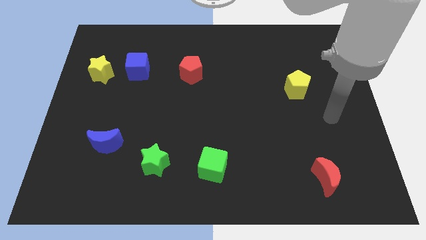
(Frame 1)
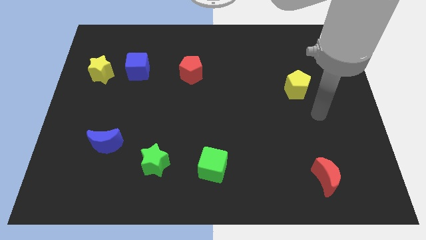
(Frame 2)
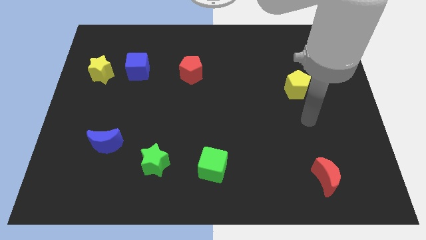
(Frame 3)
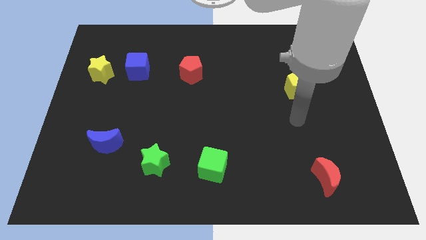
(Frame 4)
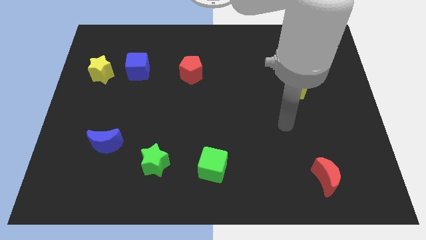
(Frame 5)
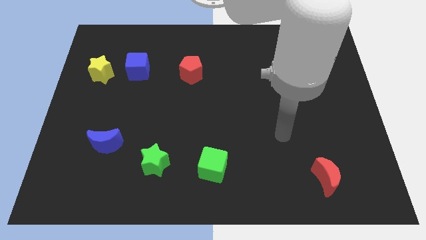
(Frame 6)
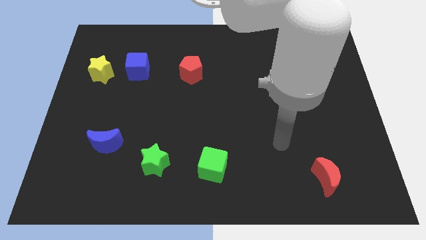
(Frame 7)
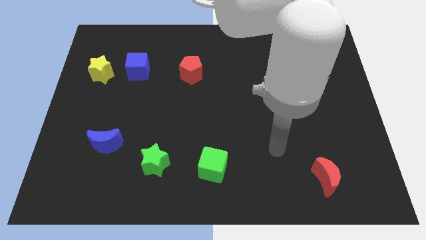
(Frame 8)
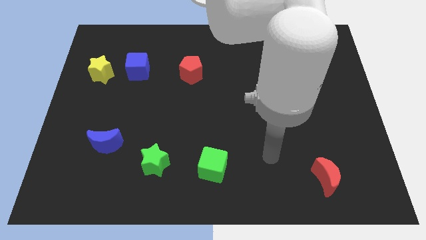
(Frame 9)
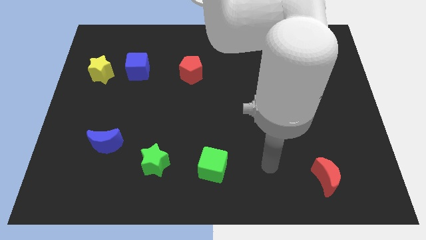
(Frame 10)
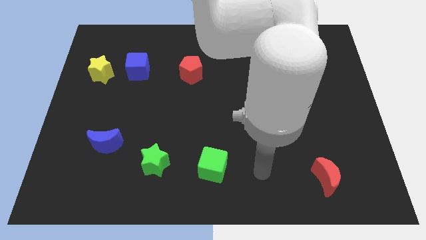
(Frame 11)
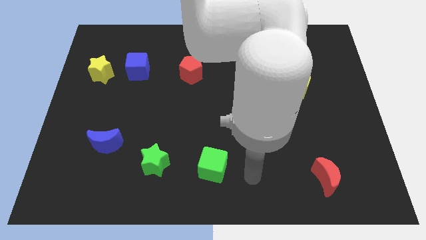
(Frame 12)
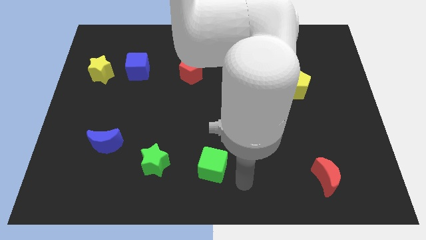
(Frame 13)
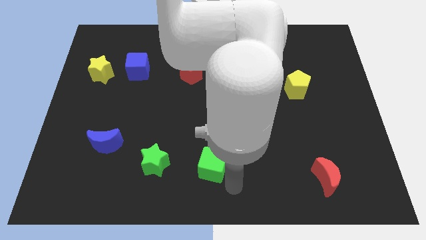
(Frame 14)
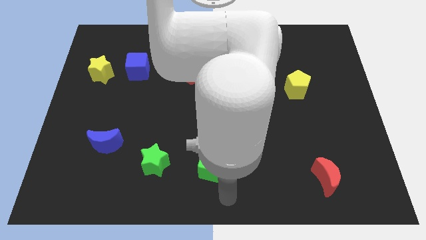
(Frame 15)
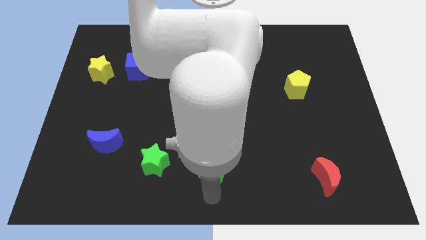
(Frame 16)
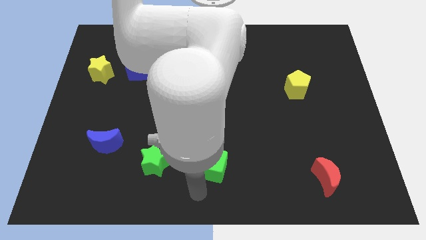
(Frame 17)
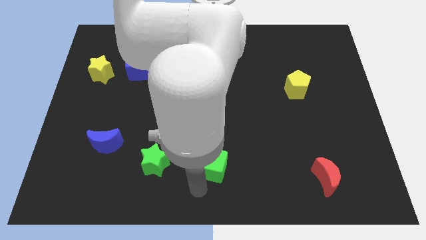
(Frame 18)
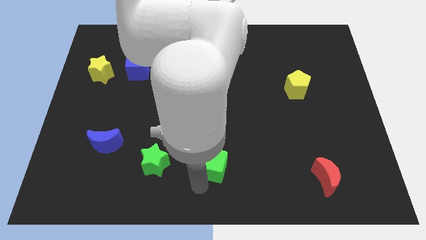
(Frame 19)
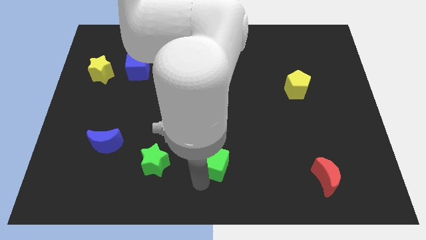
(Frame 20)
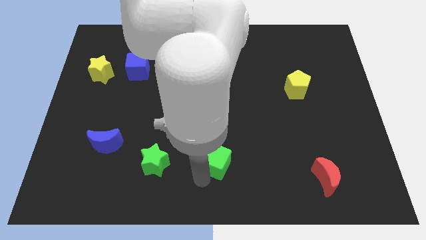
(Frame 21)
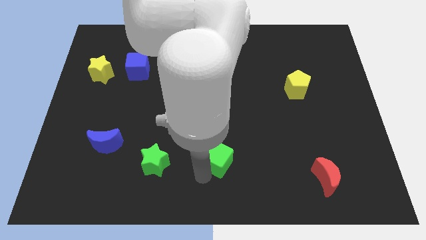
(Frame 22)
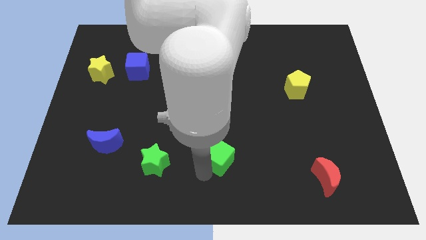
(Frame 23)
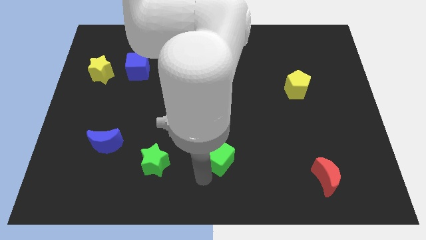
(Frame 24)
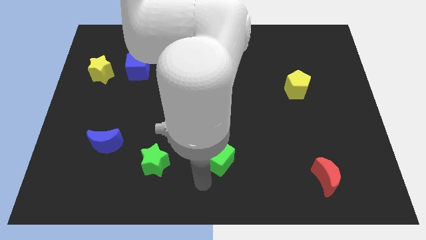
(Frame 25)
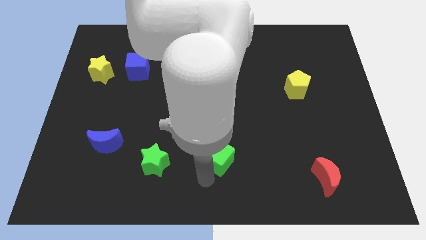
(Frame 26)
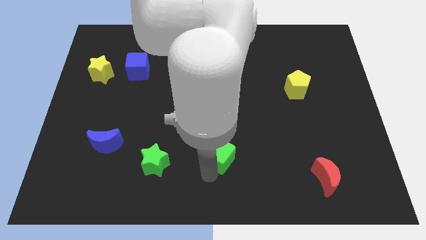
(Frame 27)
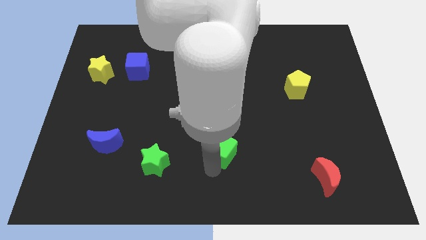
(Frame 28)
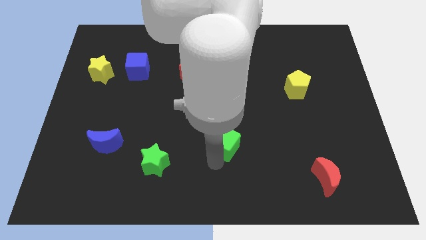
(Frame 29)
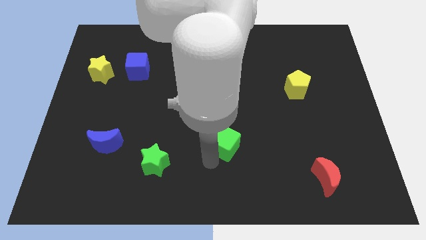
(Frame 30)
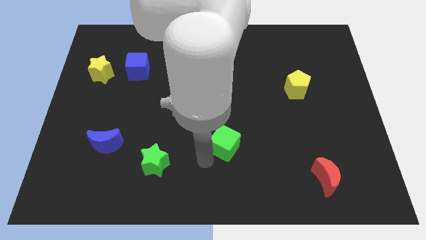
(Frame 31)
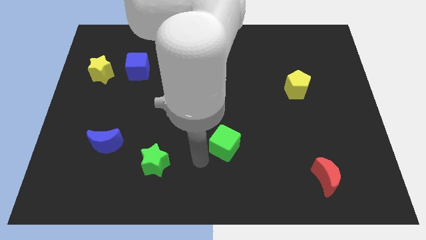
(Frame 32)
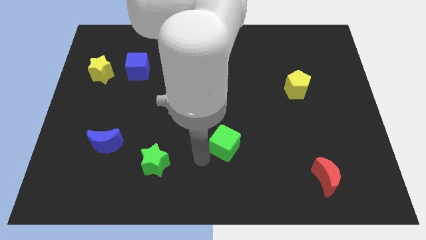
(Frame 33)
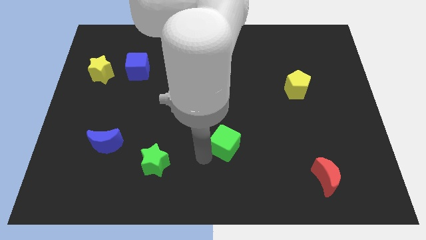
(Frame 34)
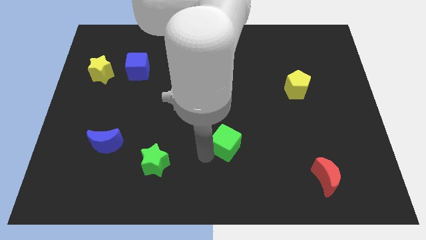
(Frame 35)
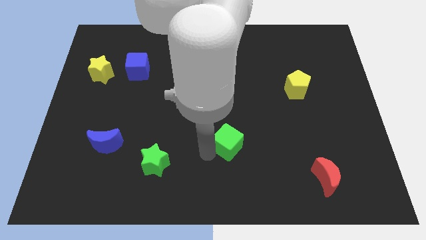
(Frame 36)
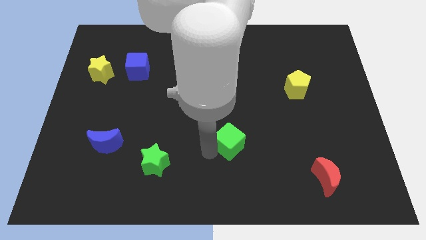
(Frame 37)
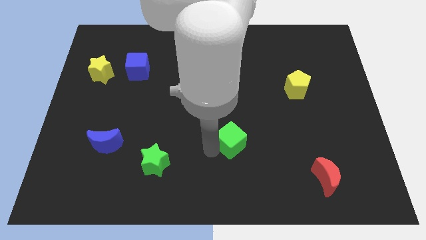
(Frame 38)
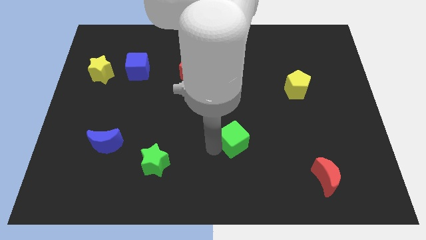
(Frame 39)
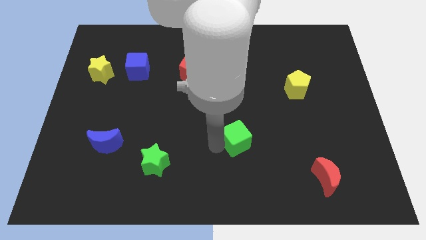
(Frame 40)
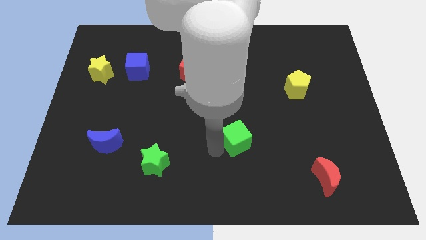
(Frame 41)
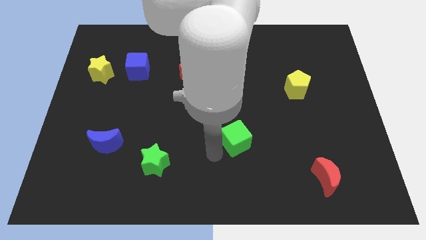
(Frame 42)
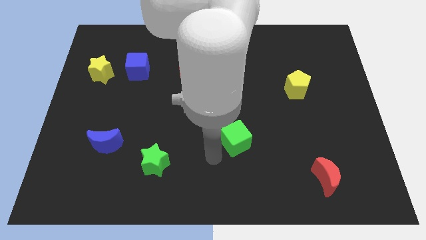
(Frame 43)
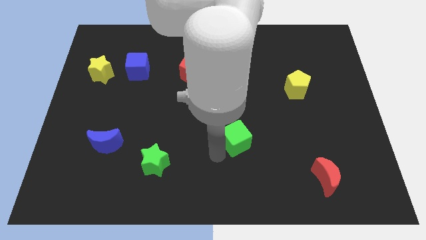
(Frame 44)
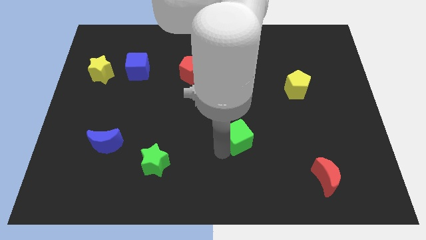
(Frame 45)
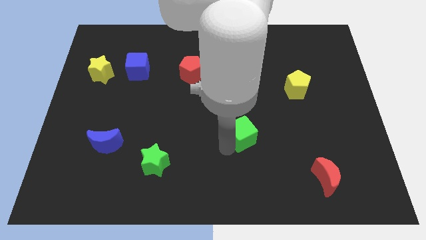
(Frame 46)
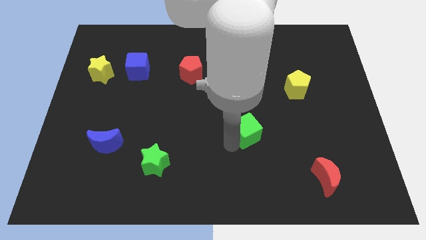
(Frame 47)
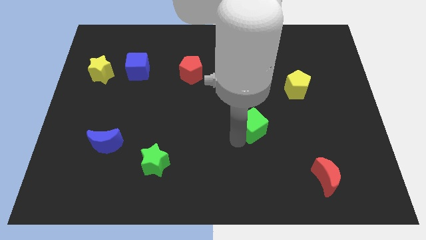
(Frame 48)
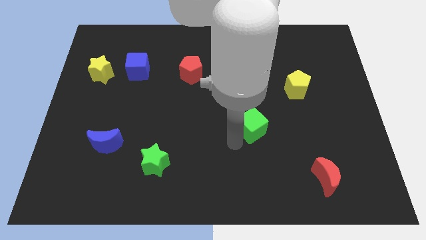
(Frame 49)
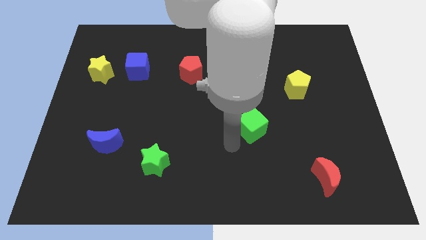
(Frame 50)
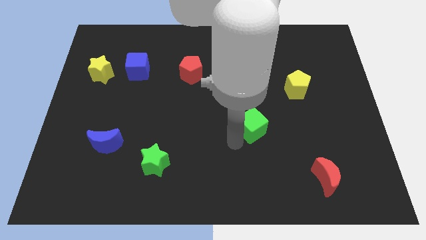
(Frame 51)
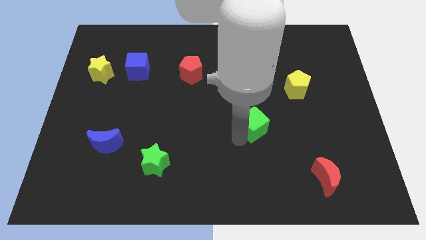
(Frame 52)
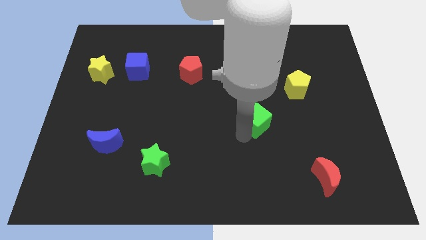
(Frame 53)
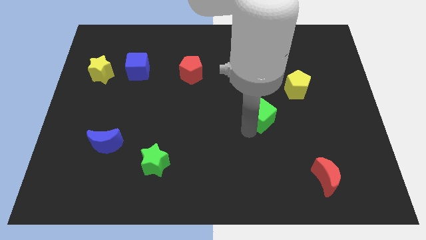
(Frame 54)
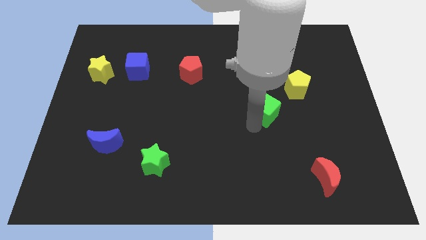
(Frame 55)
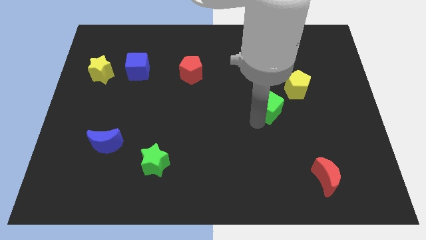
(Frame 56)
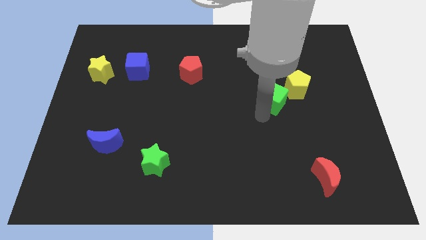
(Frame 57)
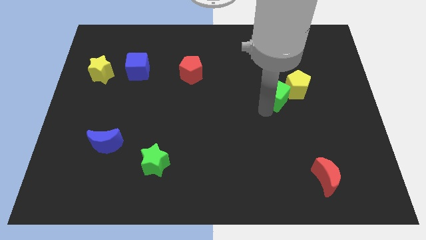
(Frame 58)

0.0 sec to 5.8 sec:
push the green cube to the yellow pentagon

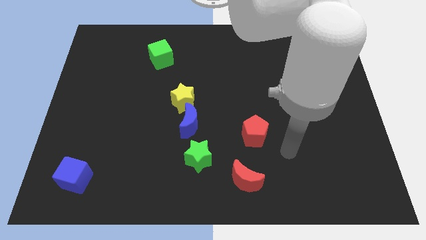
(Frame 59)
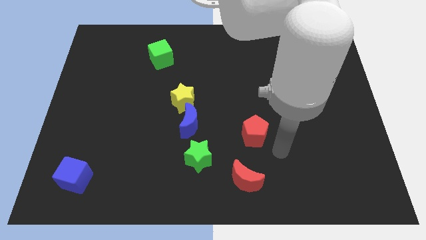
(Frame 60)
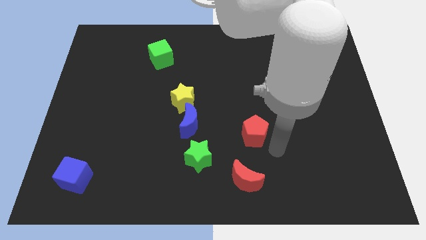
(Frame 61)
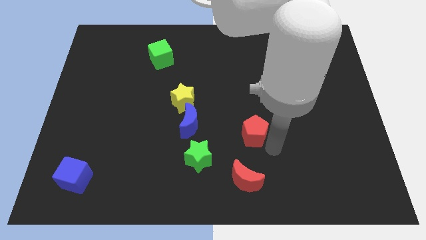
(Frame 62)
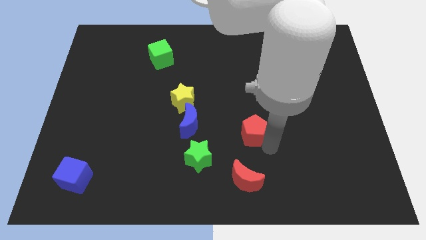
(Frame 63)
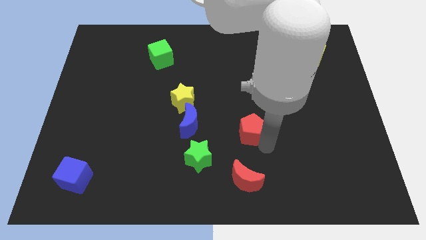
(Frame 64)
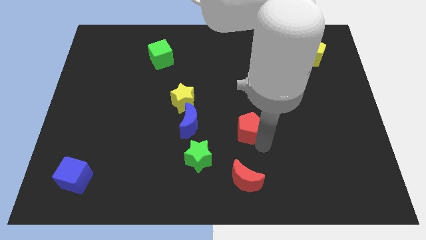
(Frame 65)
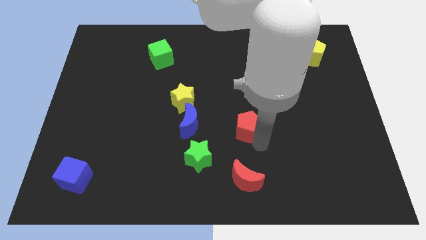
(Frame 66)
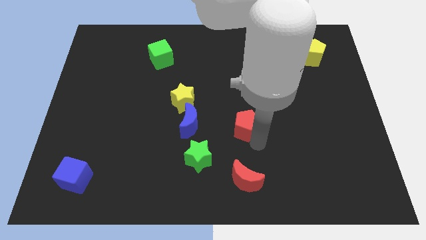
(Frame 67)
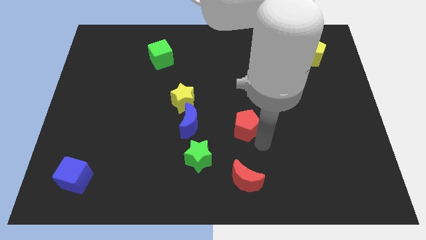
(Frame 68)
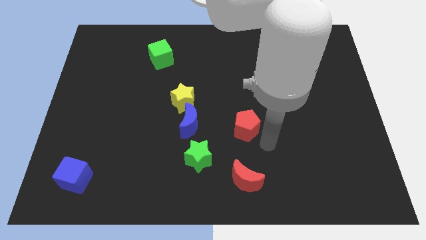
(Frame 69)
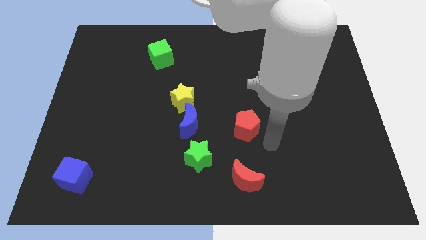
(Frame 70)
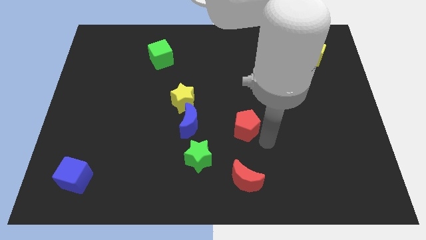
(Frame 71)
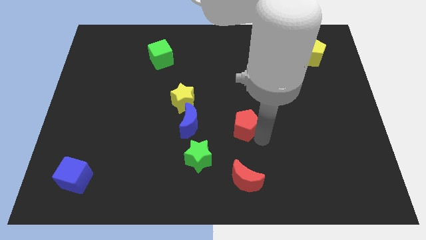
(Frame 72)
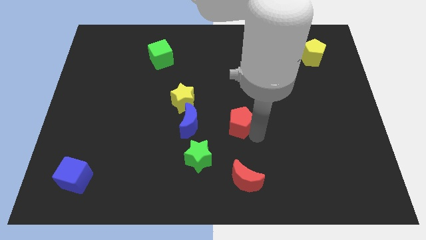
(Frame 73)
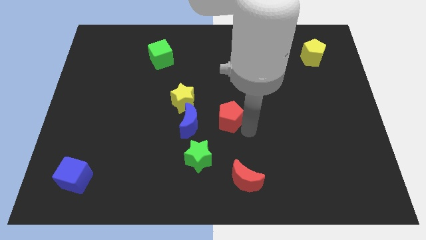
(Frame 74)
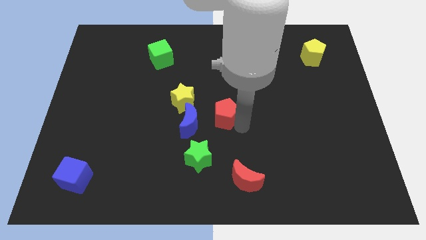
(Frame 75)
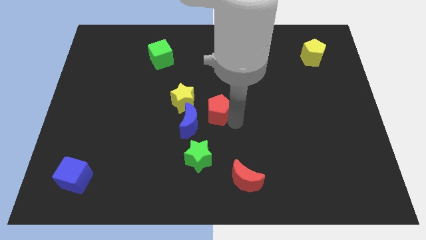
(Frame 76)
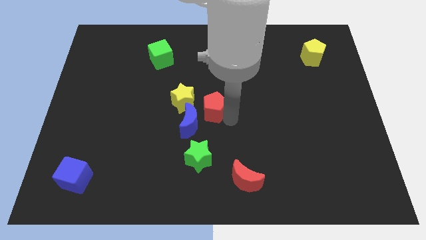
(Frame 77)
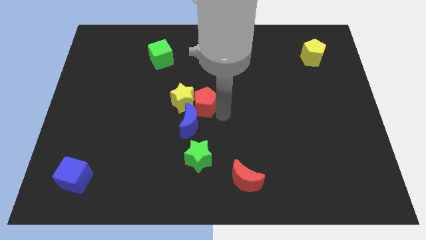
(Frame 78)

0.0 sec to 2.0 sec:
push the red pentagon towards the yellow star
